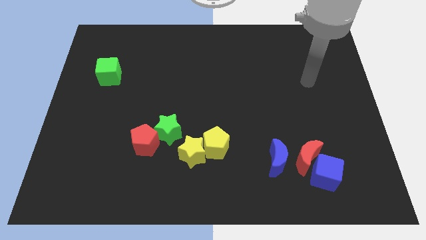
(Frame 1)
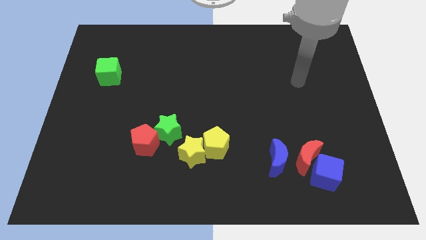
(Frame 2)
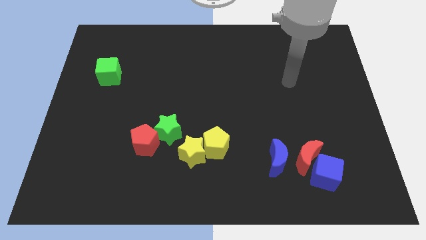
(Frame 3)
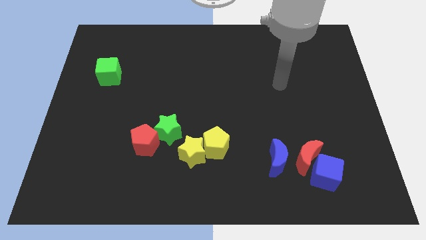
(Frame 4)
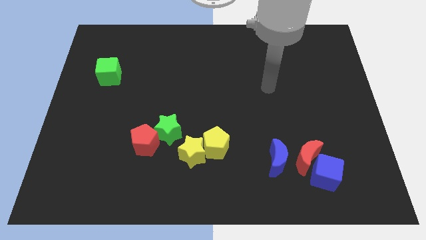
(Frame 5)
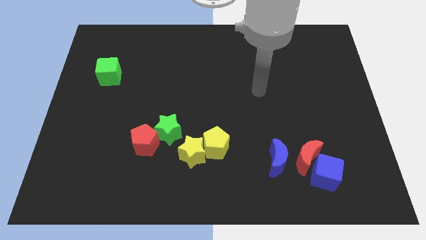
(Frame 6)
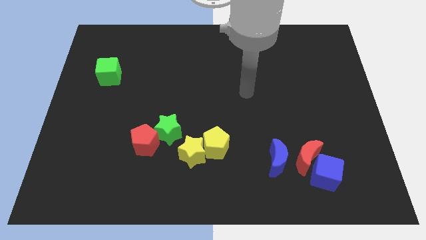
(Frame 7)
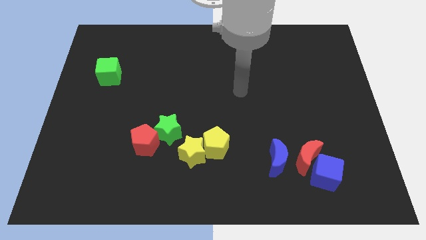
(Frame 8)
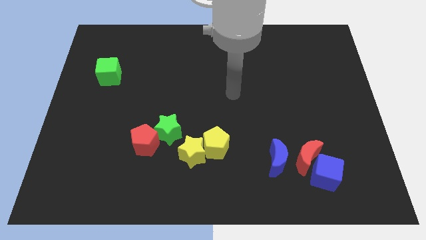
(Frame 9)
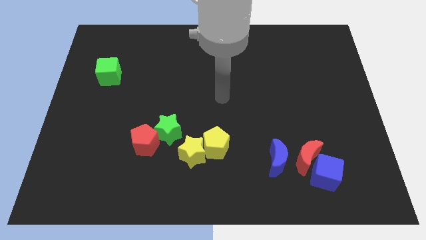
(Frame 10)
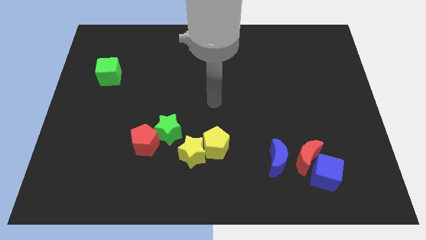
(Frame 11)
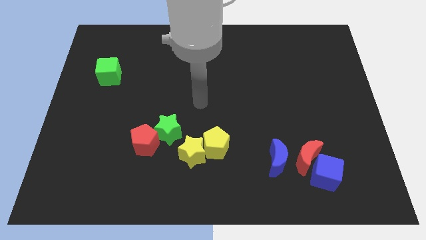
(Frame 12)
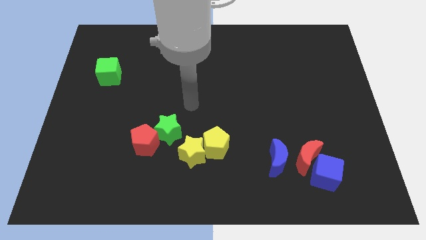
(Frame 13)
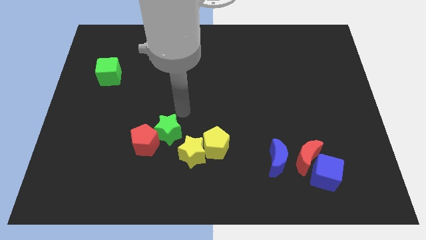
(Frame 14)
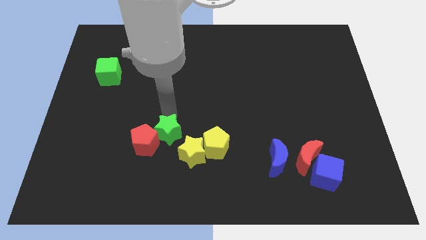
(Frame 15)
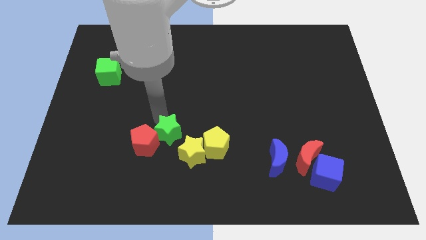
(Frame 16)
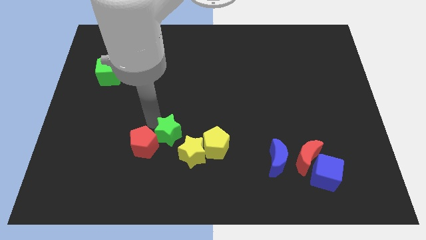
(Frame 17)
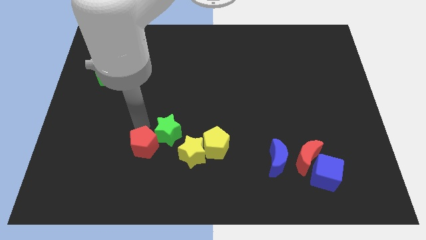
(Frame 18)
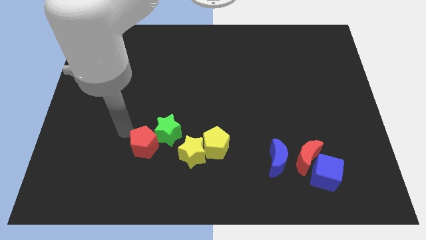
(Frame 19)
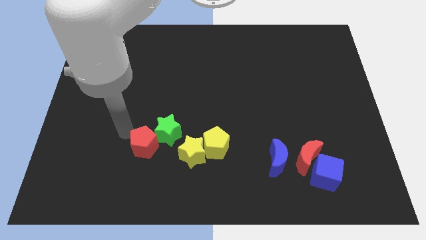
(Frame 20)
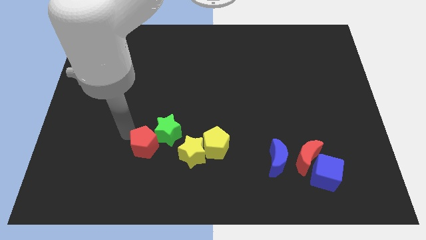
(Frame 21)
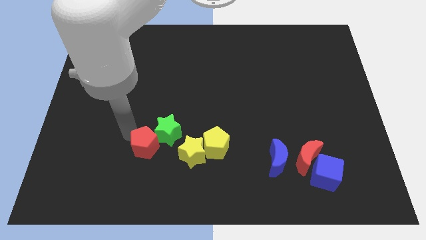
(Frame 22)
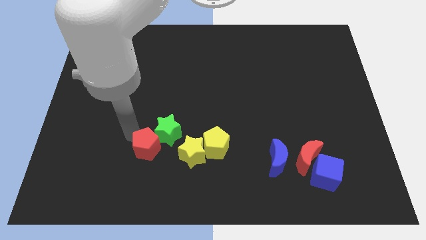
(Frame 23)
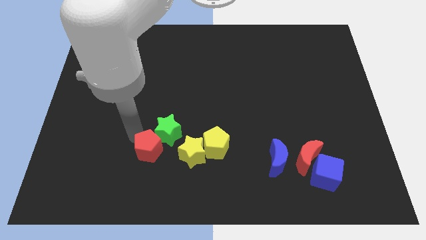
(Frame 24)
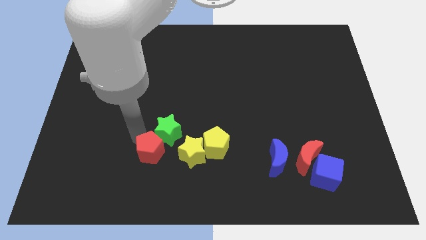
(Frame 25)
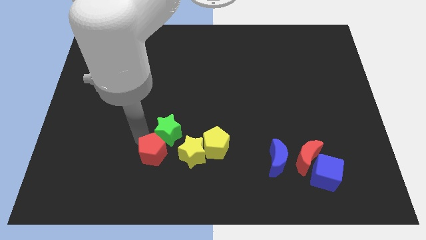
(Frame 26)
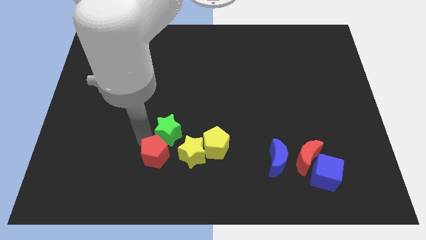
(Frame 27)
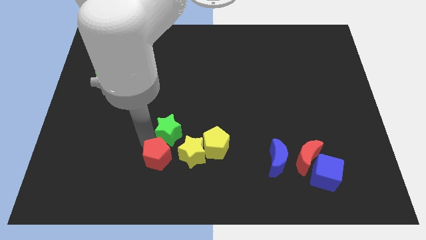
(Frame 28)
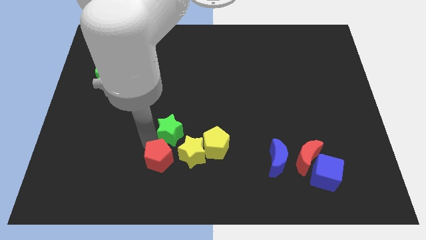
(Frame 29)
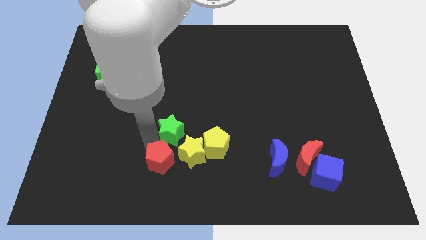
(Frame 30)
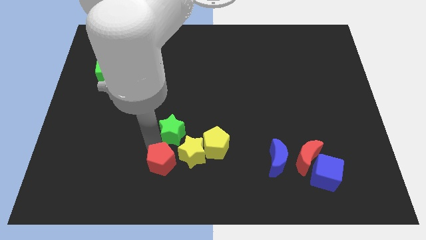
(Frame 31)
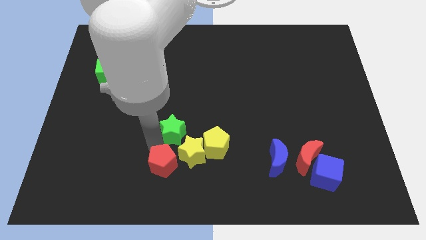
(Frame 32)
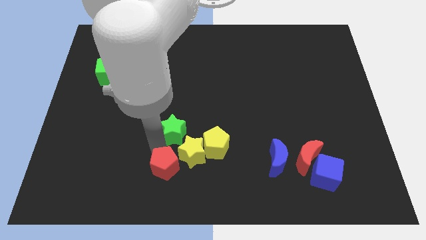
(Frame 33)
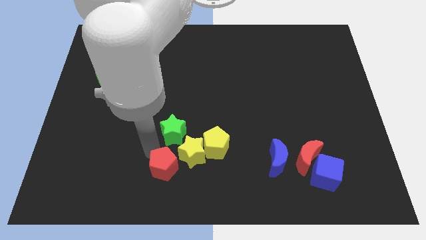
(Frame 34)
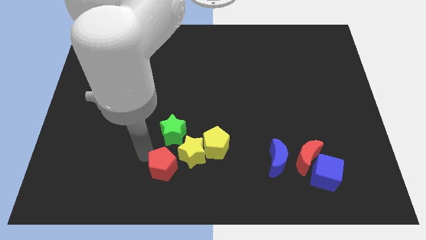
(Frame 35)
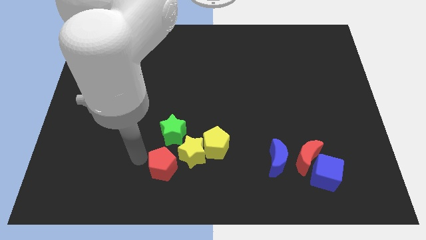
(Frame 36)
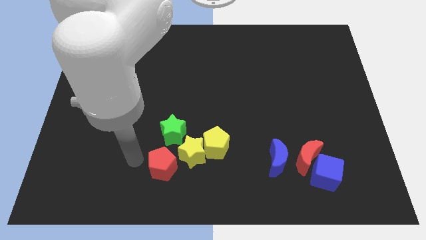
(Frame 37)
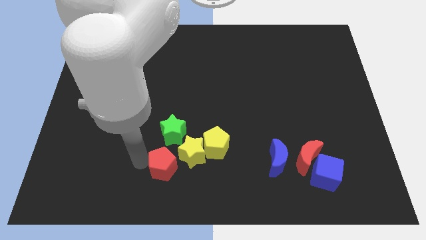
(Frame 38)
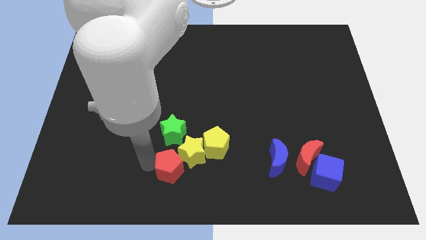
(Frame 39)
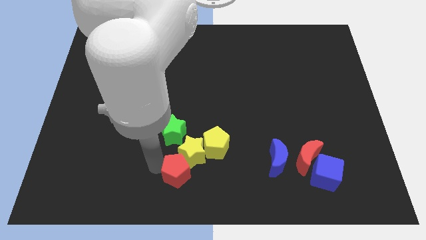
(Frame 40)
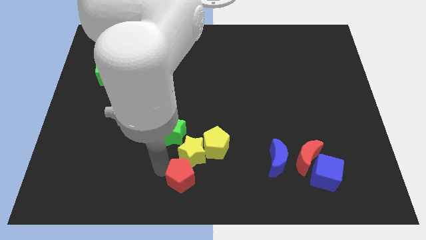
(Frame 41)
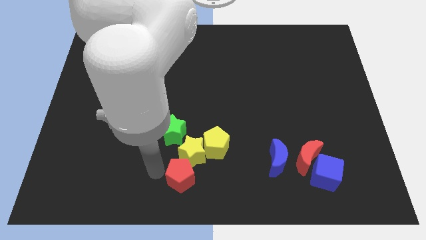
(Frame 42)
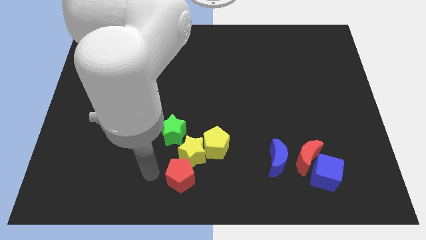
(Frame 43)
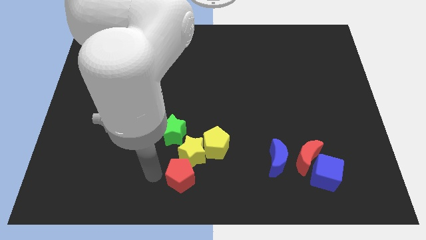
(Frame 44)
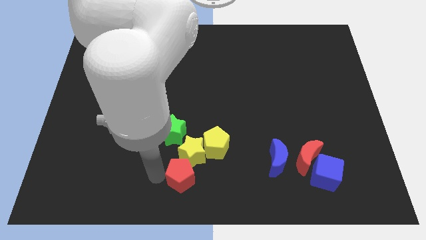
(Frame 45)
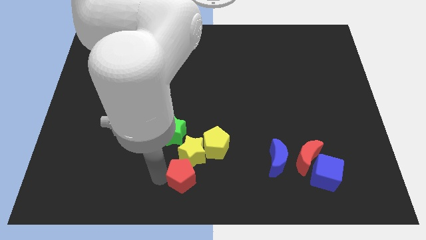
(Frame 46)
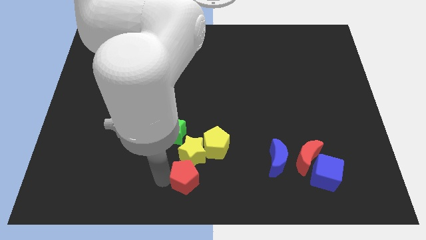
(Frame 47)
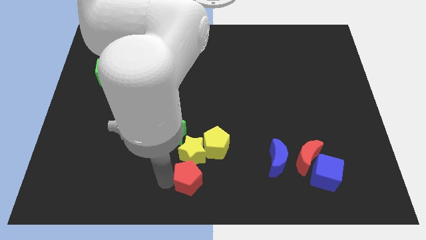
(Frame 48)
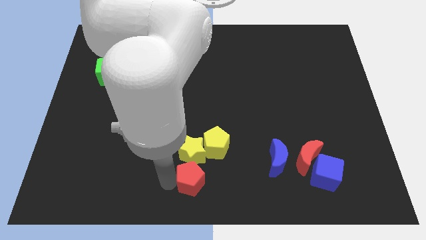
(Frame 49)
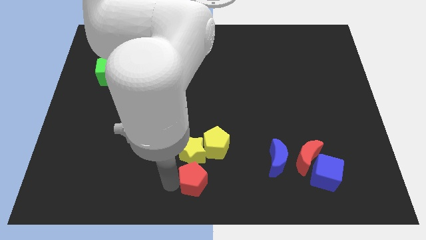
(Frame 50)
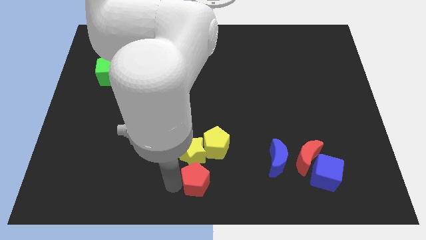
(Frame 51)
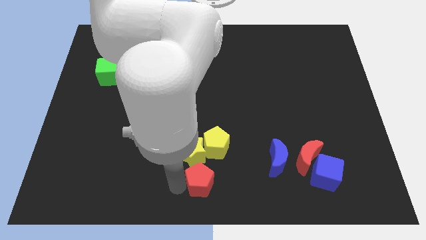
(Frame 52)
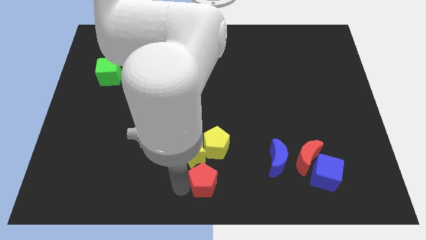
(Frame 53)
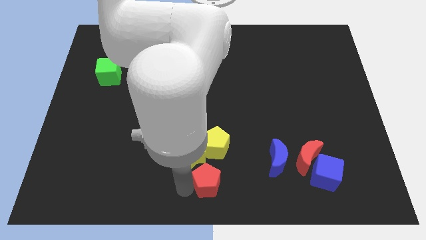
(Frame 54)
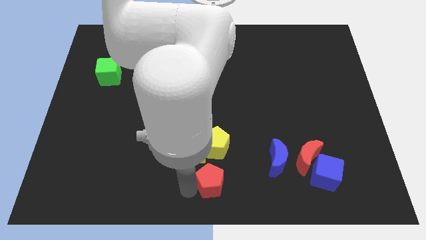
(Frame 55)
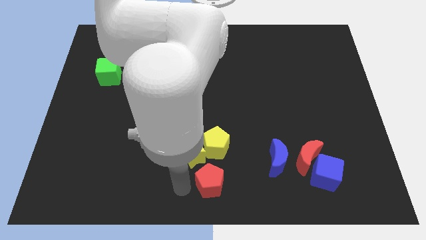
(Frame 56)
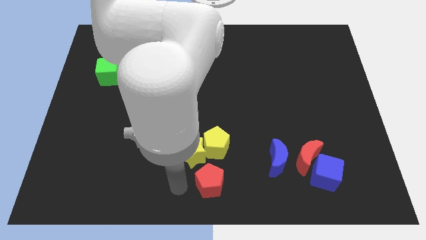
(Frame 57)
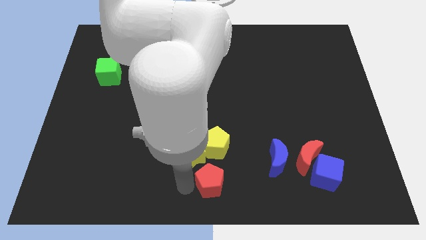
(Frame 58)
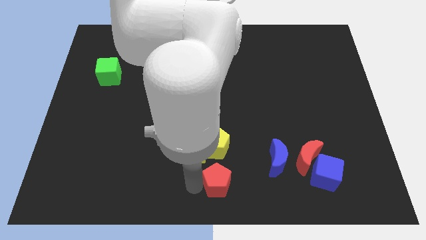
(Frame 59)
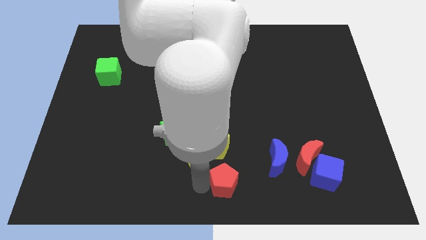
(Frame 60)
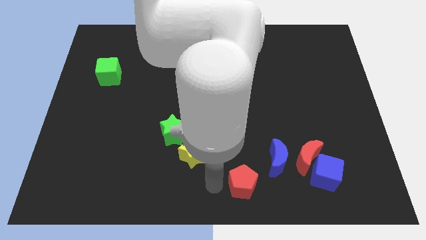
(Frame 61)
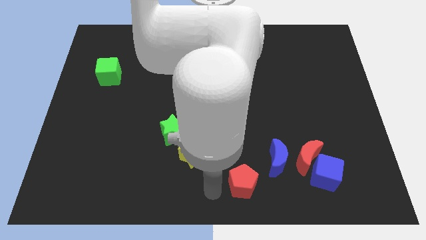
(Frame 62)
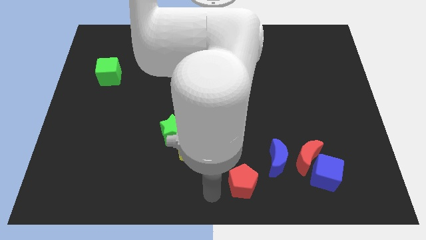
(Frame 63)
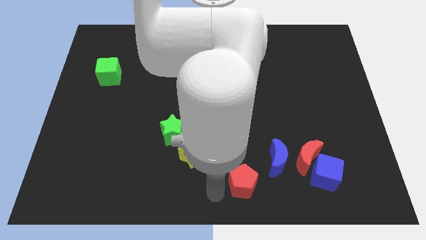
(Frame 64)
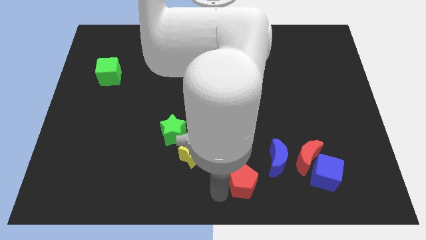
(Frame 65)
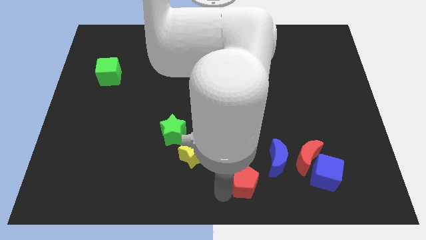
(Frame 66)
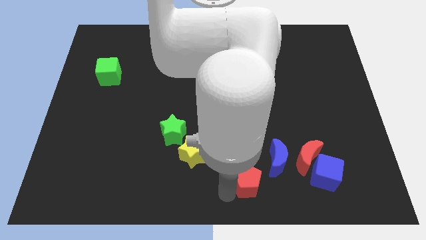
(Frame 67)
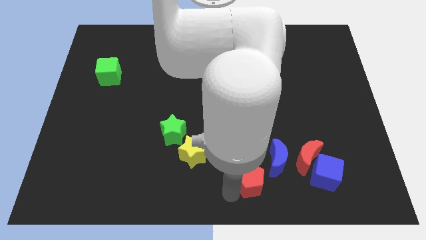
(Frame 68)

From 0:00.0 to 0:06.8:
push the red pentagon just left of the blue cube
